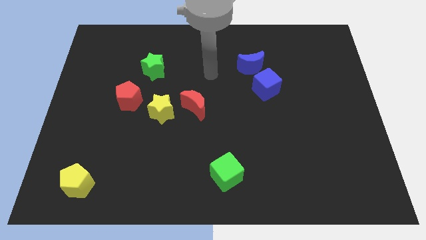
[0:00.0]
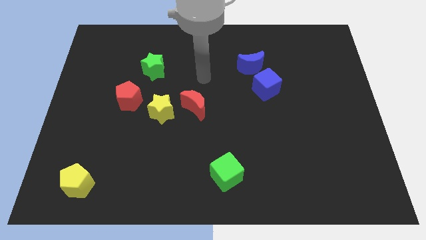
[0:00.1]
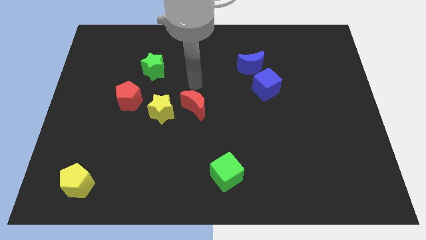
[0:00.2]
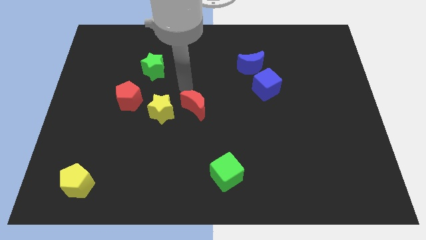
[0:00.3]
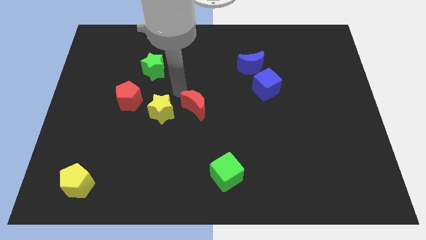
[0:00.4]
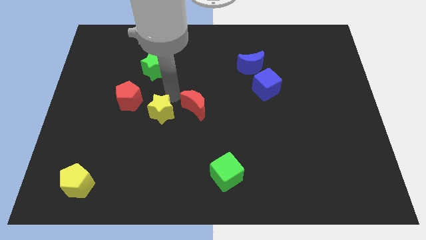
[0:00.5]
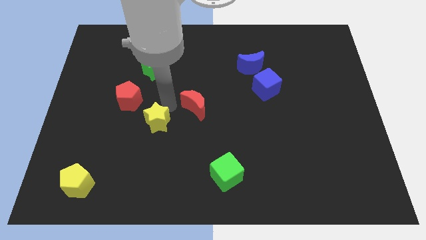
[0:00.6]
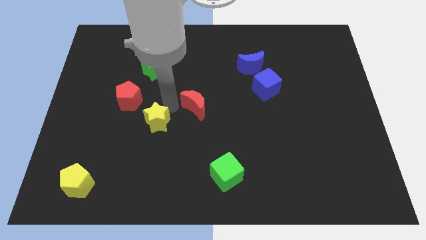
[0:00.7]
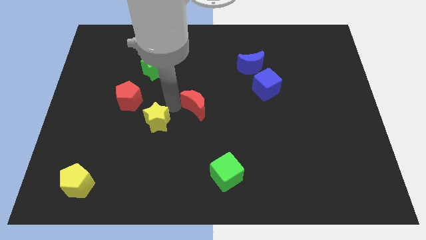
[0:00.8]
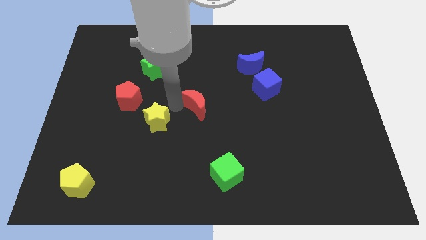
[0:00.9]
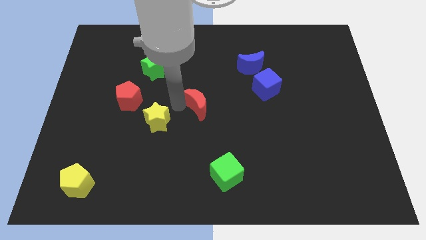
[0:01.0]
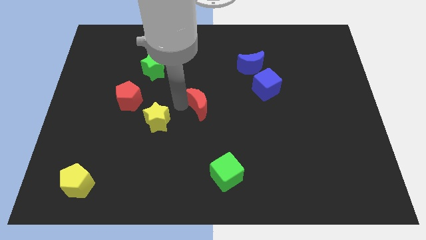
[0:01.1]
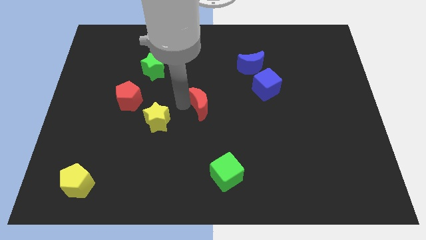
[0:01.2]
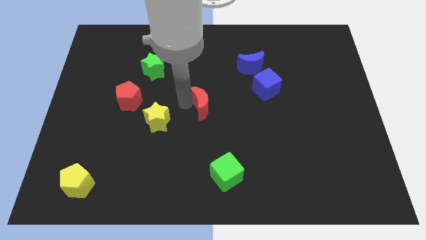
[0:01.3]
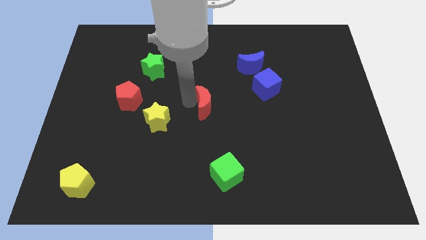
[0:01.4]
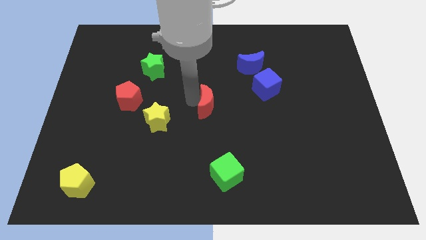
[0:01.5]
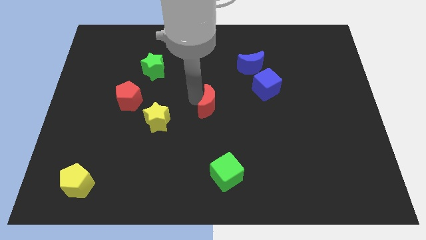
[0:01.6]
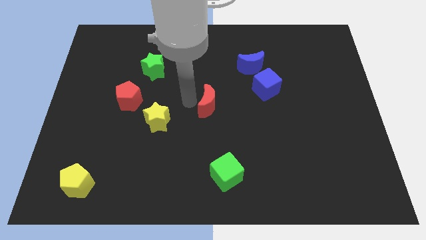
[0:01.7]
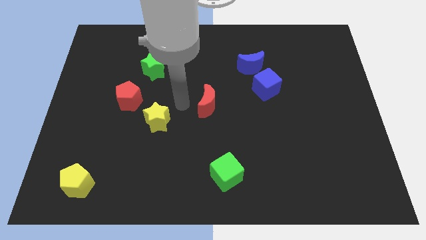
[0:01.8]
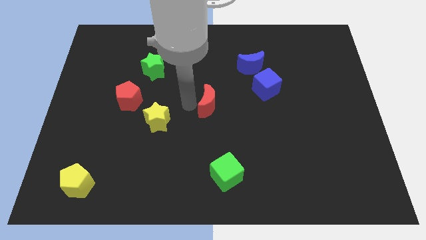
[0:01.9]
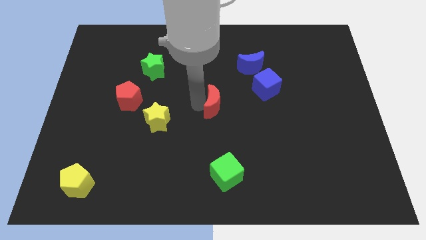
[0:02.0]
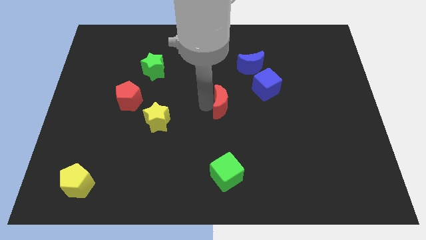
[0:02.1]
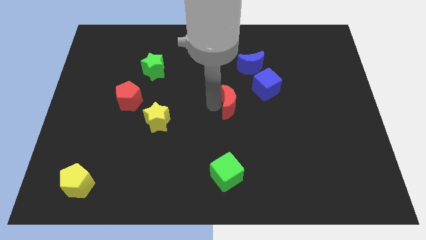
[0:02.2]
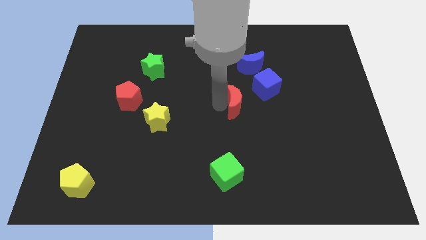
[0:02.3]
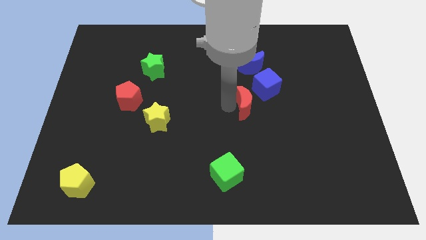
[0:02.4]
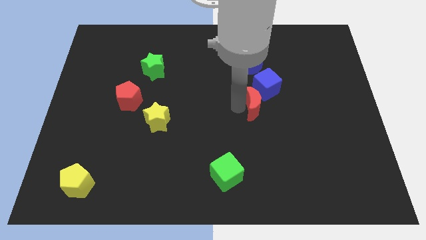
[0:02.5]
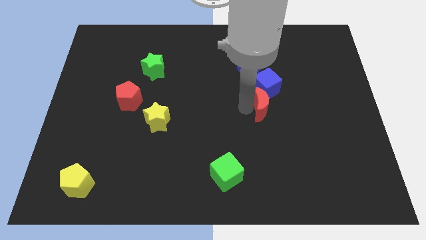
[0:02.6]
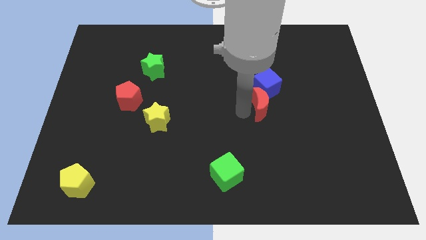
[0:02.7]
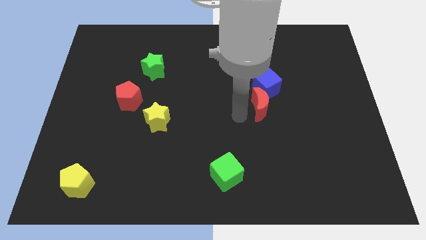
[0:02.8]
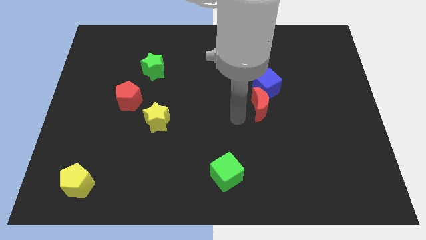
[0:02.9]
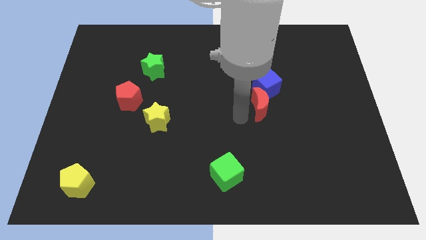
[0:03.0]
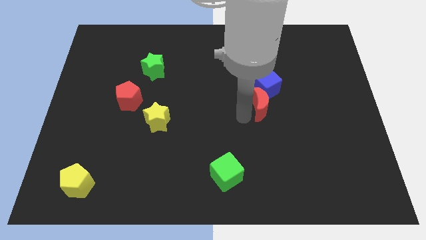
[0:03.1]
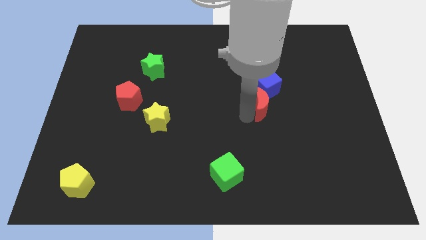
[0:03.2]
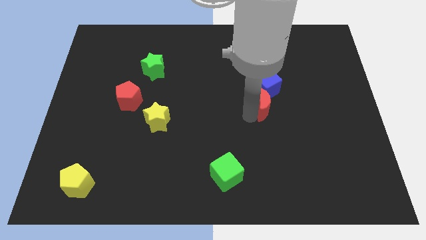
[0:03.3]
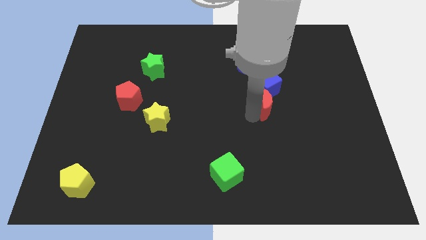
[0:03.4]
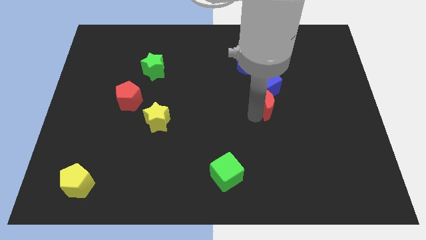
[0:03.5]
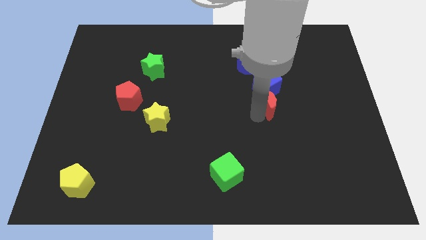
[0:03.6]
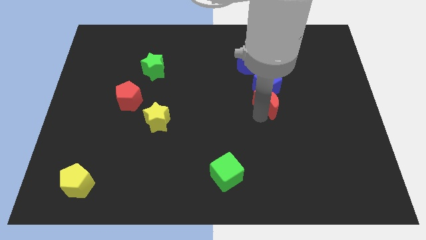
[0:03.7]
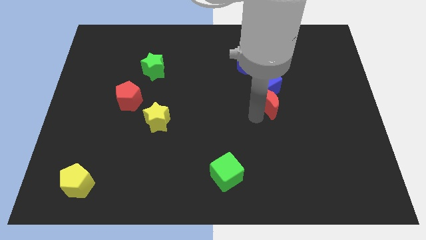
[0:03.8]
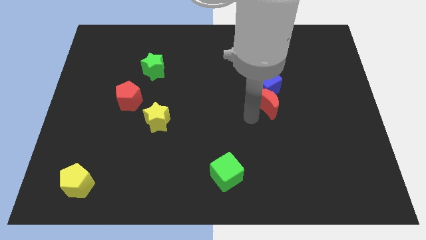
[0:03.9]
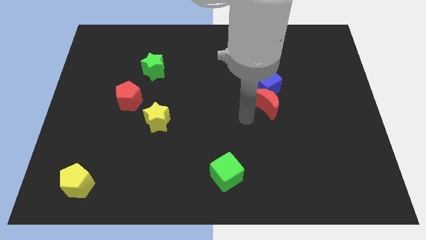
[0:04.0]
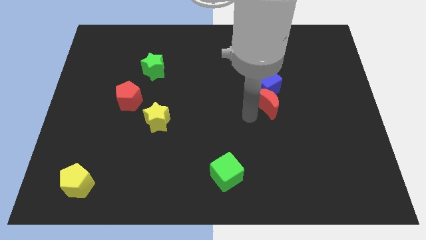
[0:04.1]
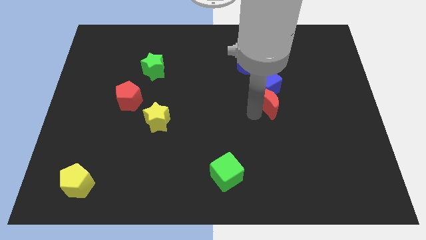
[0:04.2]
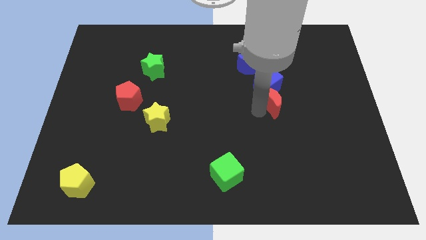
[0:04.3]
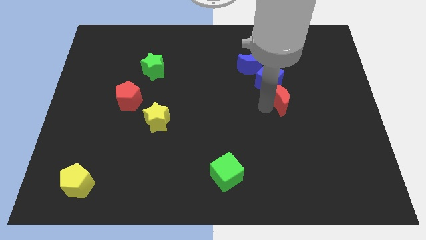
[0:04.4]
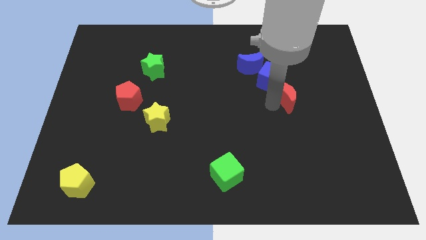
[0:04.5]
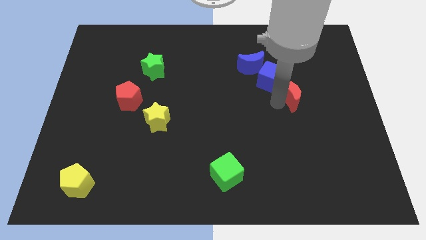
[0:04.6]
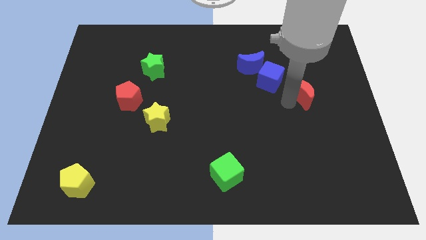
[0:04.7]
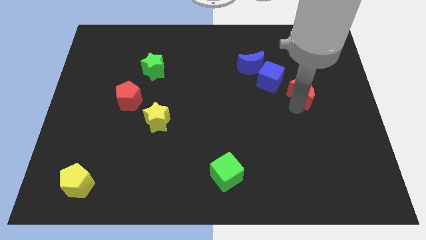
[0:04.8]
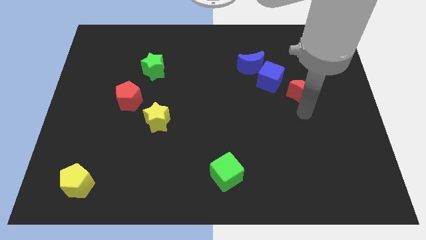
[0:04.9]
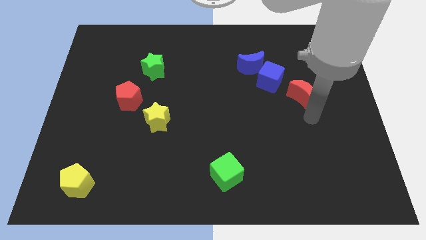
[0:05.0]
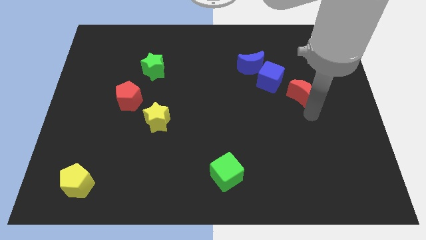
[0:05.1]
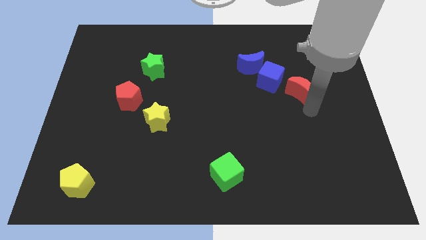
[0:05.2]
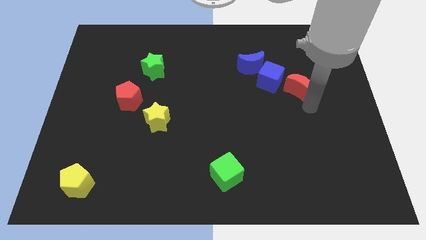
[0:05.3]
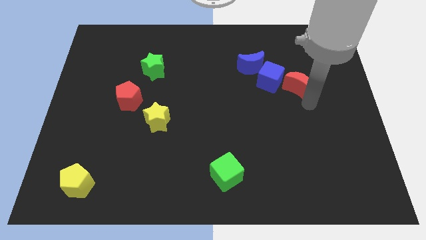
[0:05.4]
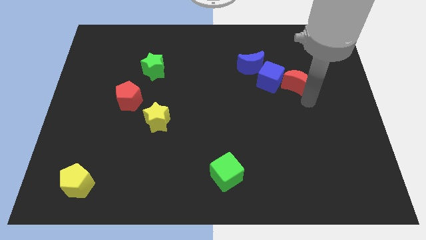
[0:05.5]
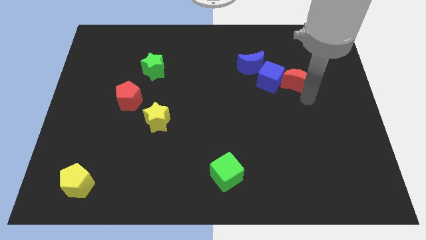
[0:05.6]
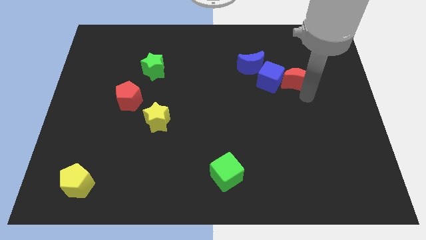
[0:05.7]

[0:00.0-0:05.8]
push the red moon diagonally up and to the right of the blue cube

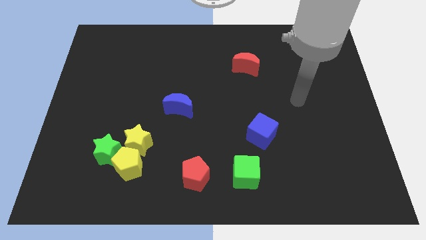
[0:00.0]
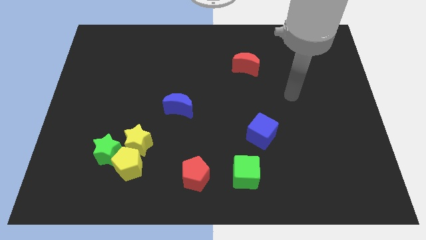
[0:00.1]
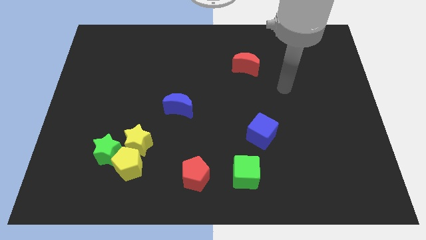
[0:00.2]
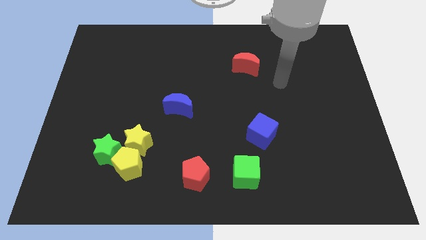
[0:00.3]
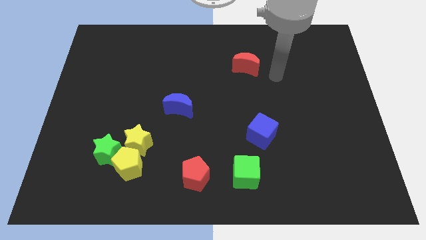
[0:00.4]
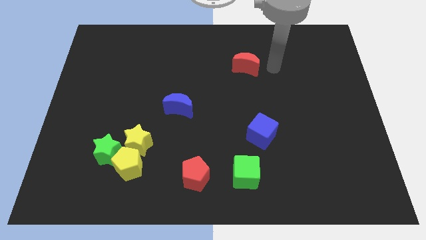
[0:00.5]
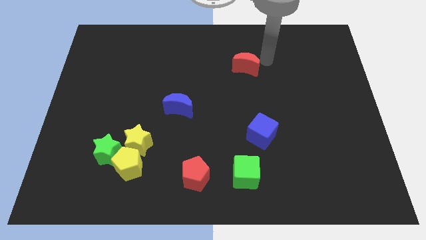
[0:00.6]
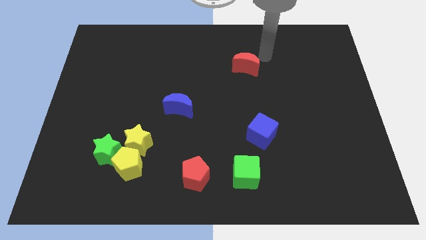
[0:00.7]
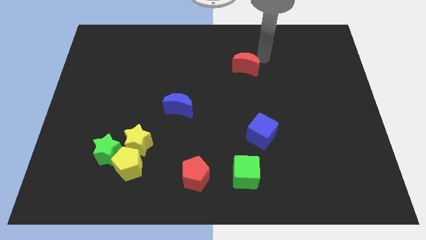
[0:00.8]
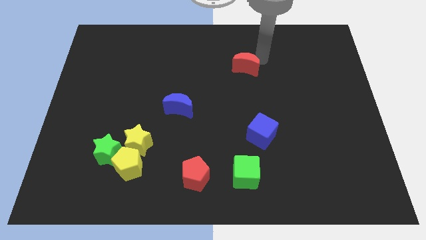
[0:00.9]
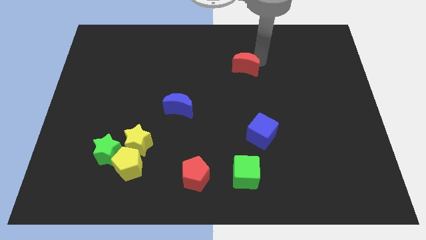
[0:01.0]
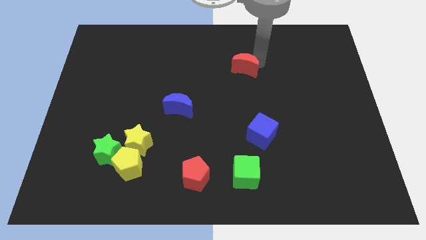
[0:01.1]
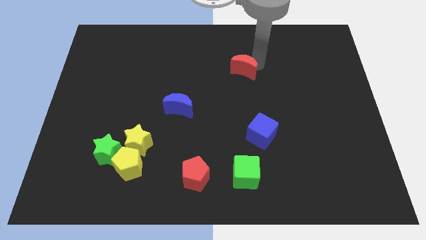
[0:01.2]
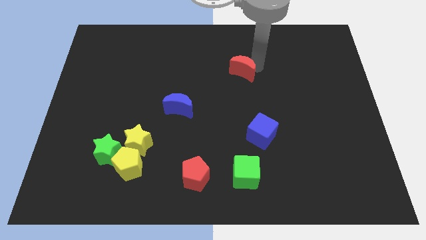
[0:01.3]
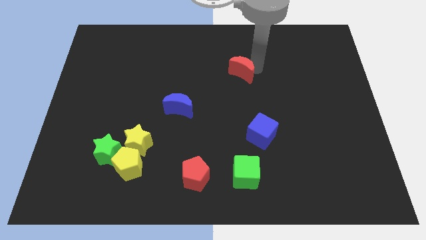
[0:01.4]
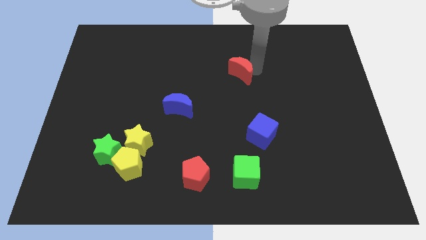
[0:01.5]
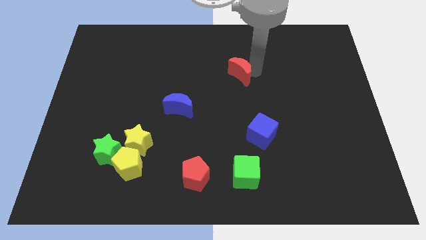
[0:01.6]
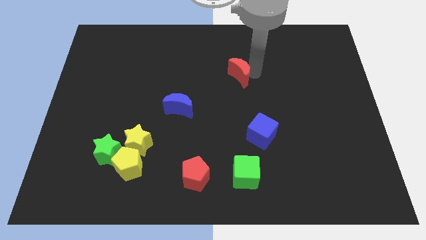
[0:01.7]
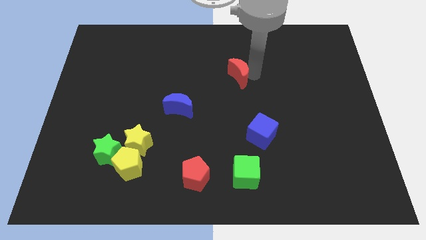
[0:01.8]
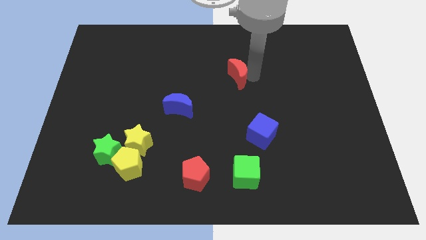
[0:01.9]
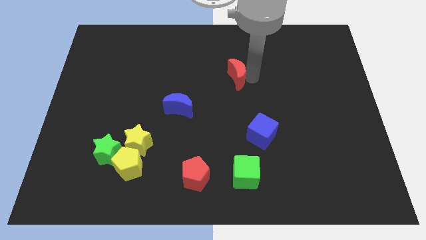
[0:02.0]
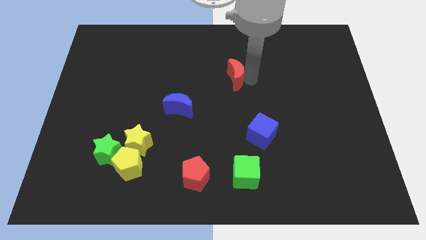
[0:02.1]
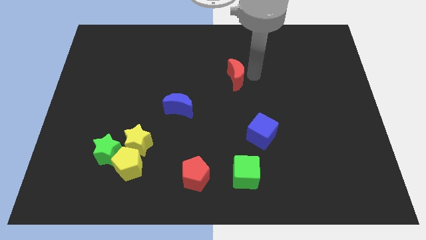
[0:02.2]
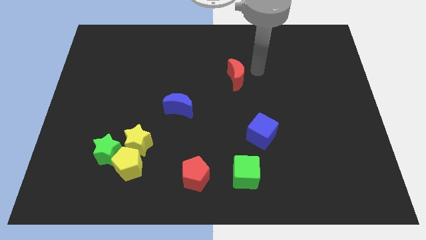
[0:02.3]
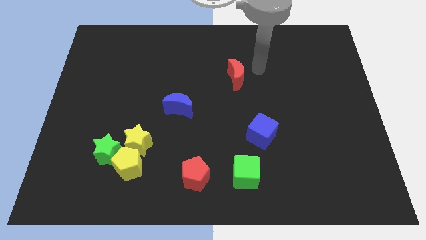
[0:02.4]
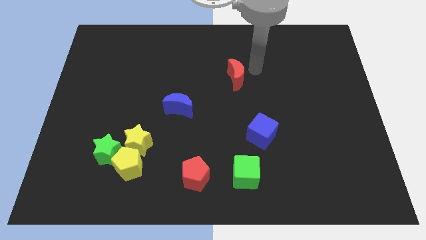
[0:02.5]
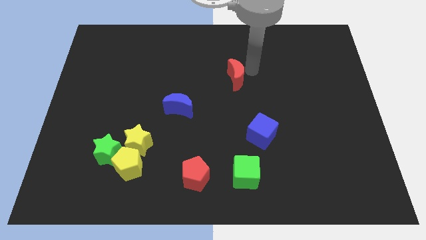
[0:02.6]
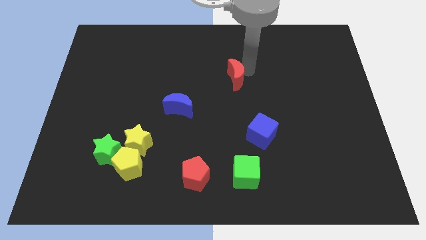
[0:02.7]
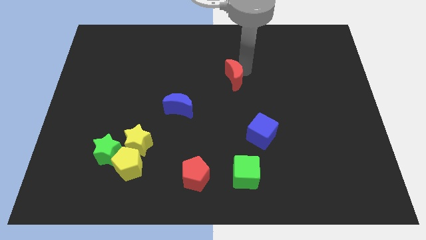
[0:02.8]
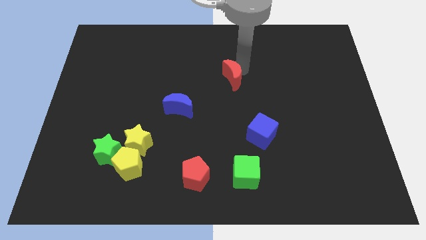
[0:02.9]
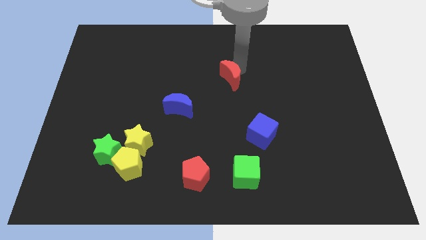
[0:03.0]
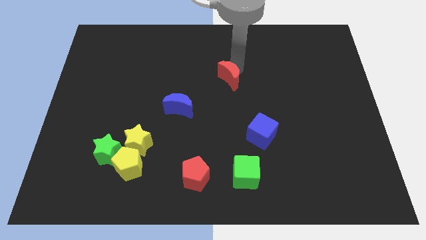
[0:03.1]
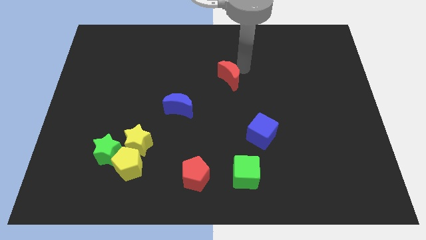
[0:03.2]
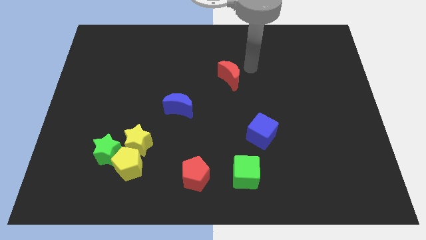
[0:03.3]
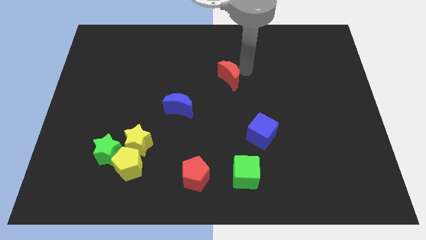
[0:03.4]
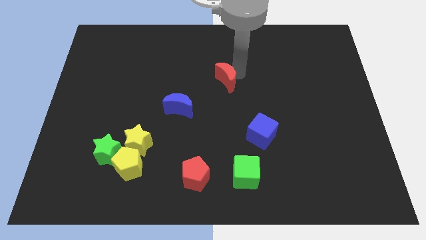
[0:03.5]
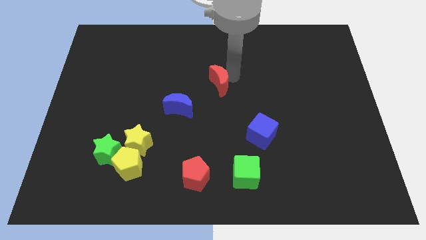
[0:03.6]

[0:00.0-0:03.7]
put the red moon diagonally up and to the right of the blue moon
